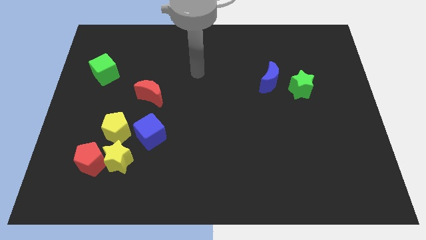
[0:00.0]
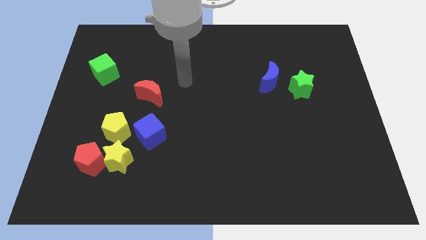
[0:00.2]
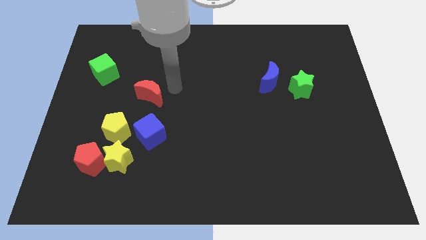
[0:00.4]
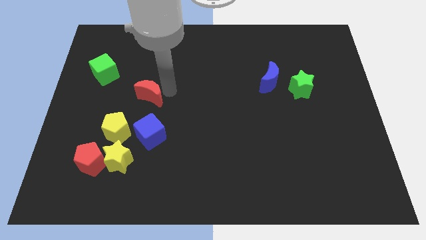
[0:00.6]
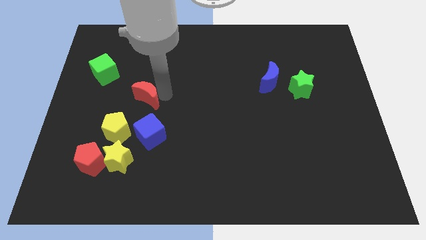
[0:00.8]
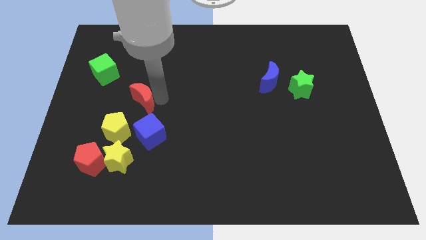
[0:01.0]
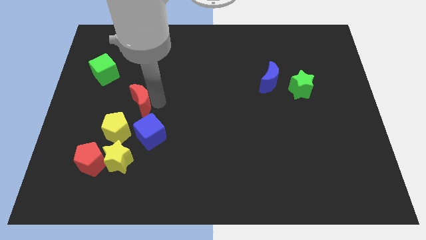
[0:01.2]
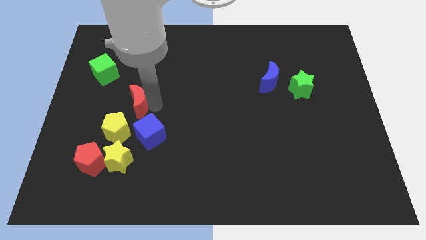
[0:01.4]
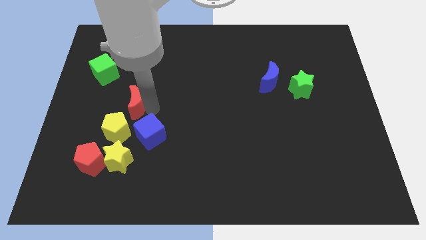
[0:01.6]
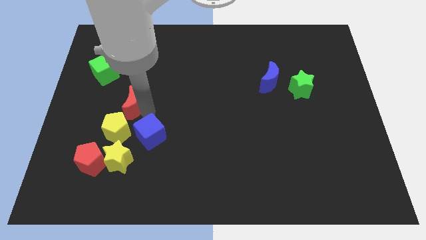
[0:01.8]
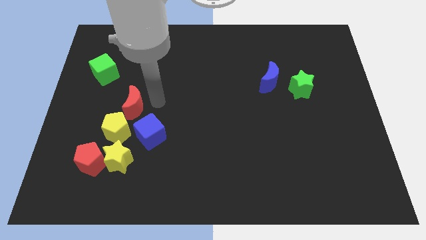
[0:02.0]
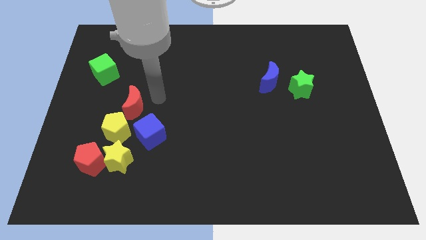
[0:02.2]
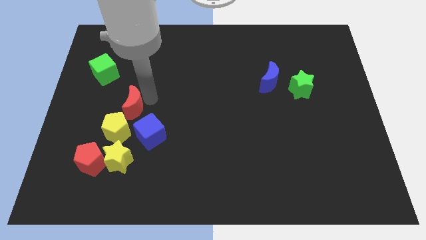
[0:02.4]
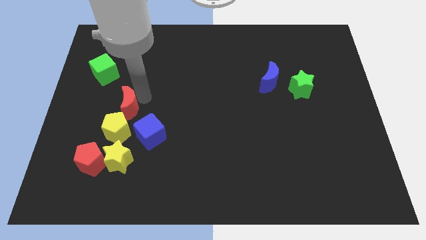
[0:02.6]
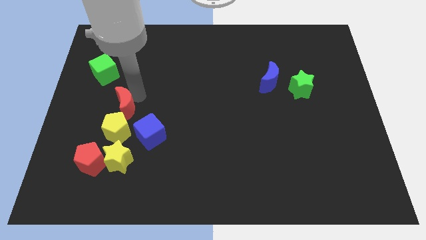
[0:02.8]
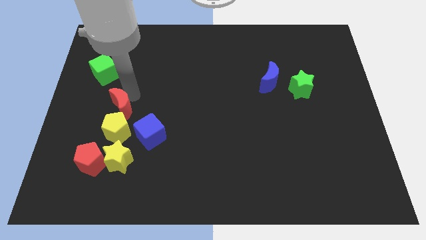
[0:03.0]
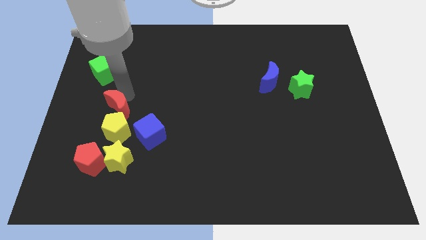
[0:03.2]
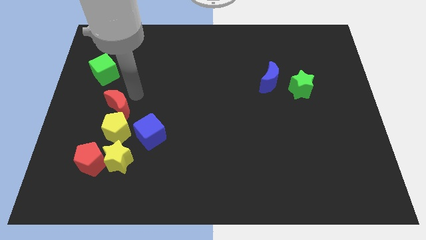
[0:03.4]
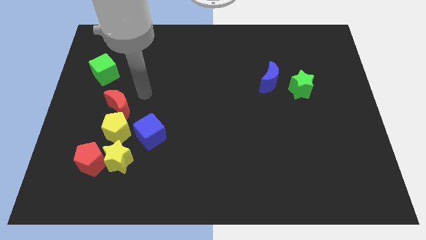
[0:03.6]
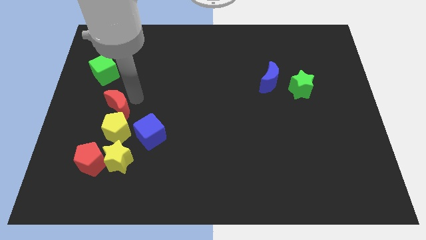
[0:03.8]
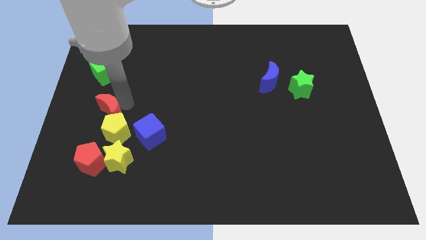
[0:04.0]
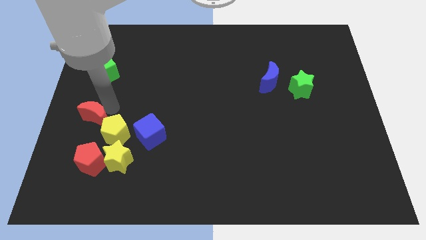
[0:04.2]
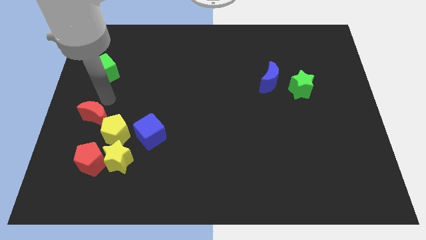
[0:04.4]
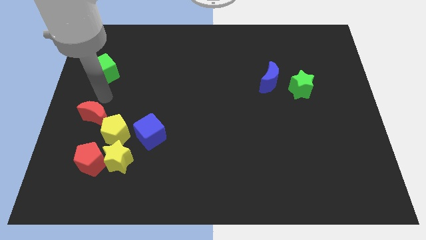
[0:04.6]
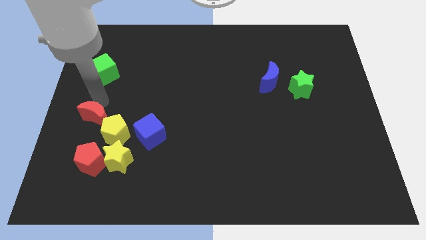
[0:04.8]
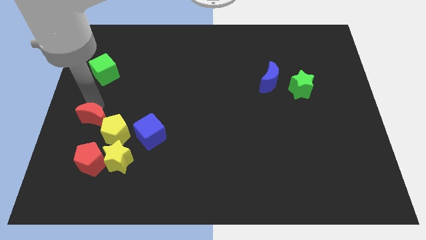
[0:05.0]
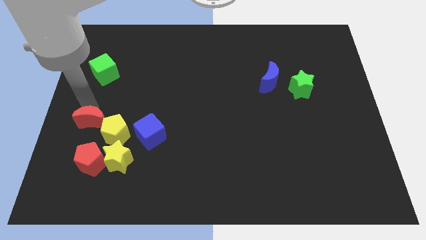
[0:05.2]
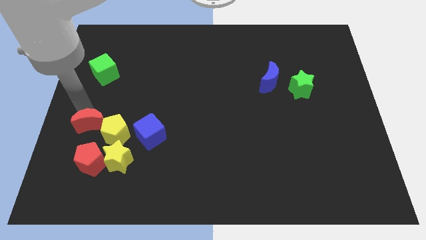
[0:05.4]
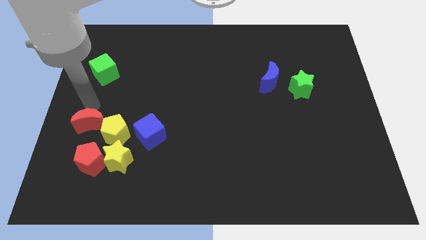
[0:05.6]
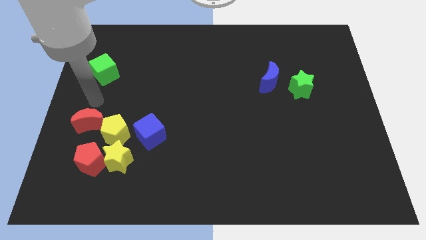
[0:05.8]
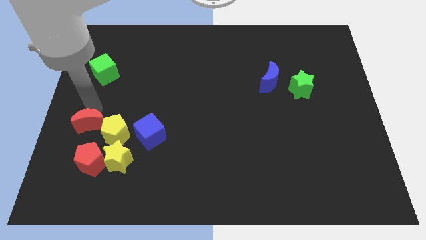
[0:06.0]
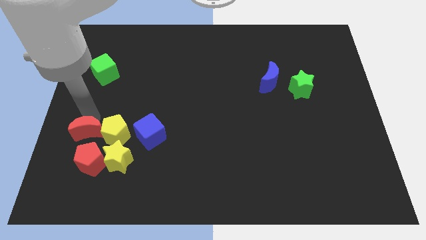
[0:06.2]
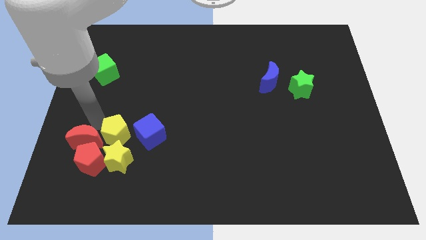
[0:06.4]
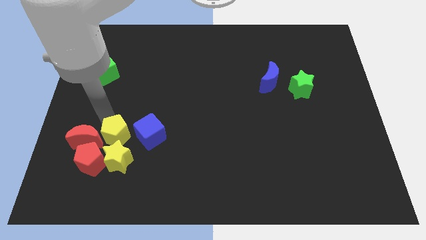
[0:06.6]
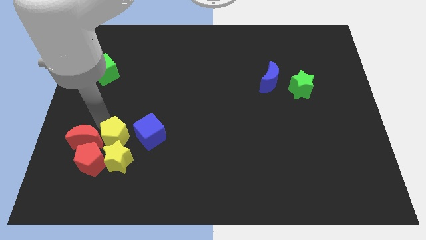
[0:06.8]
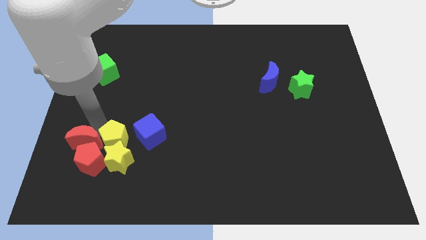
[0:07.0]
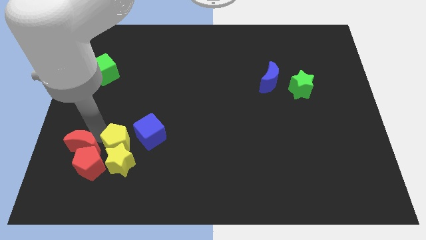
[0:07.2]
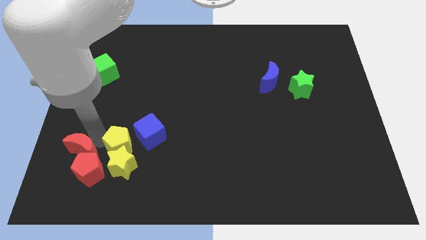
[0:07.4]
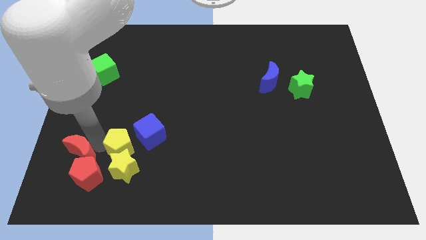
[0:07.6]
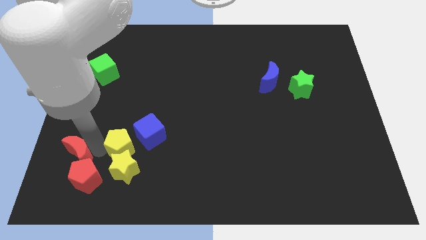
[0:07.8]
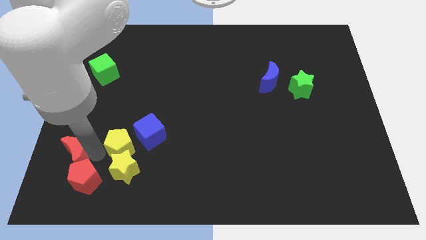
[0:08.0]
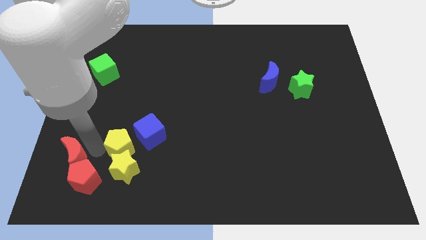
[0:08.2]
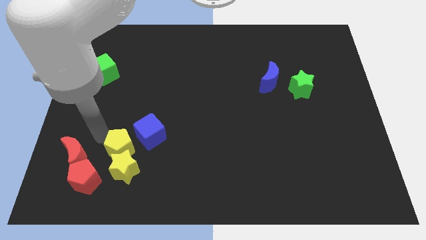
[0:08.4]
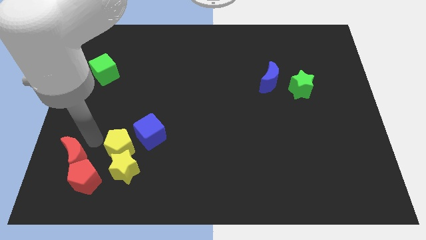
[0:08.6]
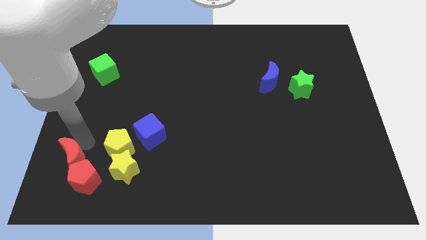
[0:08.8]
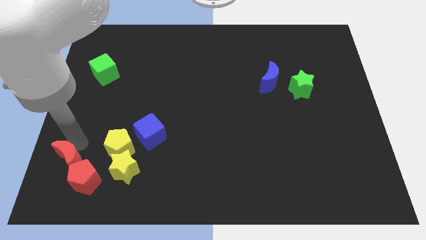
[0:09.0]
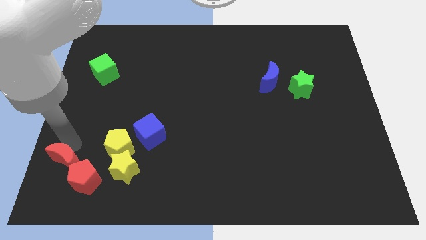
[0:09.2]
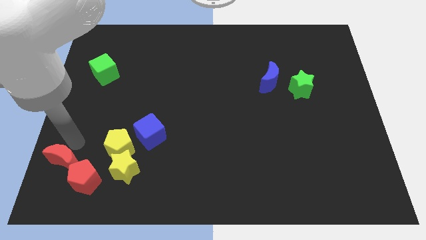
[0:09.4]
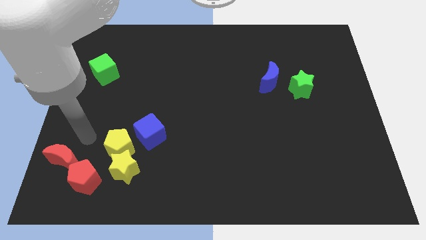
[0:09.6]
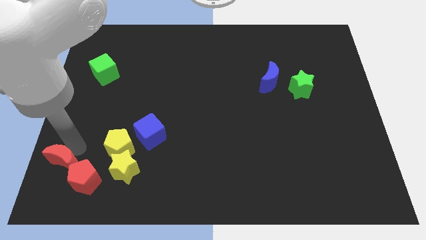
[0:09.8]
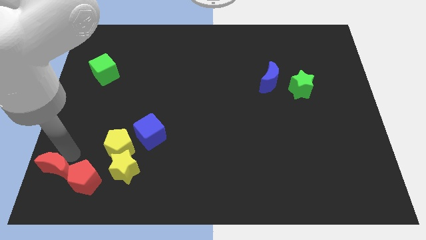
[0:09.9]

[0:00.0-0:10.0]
move the red moon to the bottom left corner

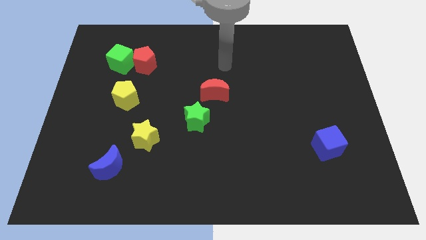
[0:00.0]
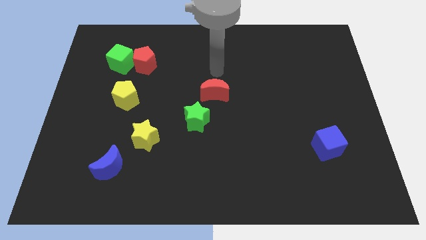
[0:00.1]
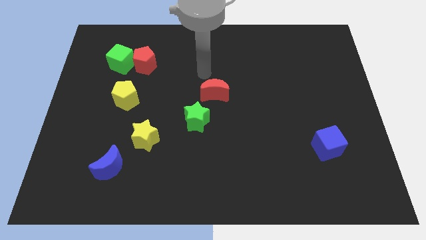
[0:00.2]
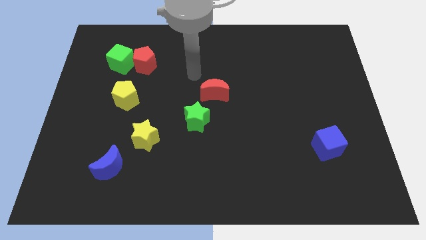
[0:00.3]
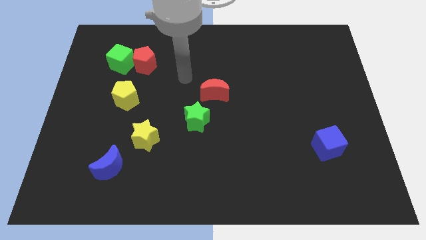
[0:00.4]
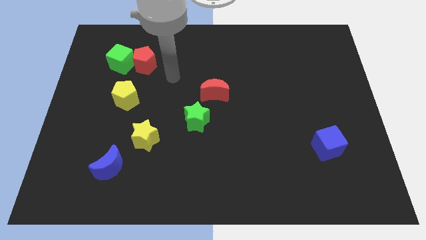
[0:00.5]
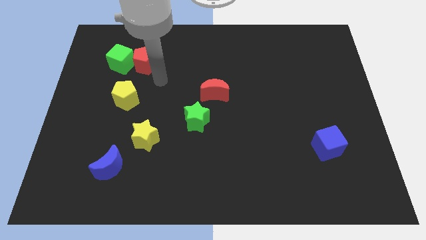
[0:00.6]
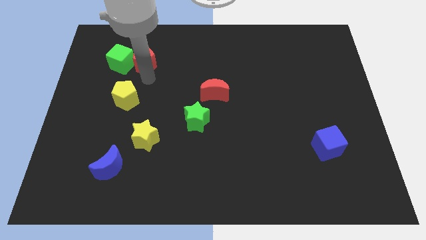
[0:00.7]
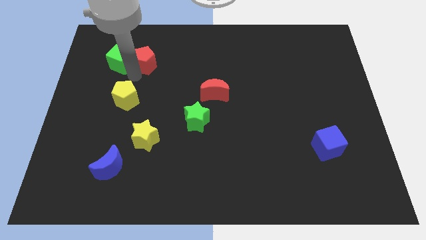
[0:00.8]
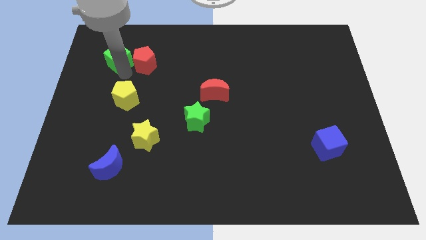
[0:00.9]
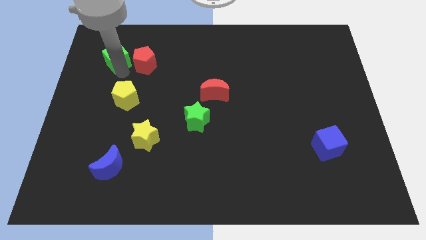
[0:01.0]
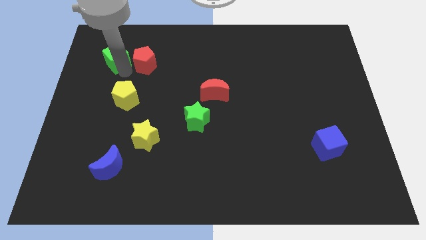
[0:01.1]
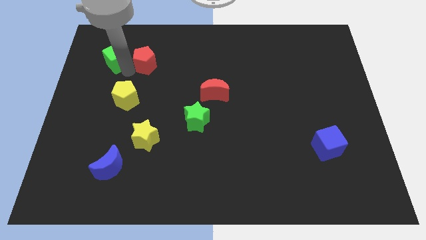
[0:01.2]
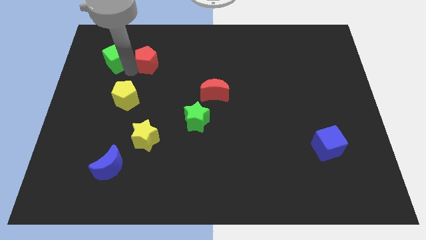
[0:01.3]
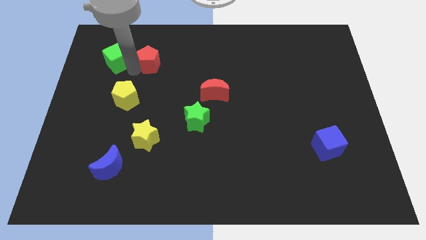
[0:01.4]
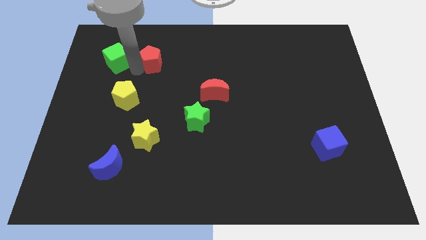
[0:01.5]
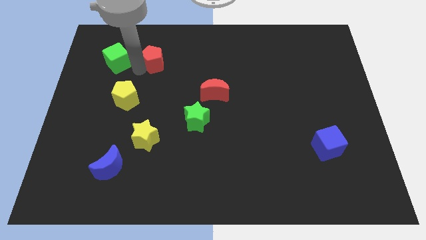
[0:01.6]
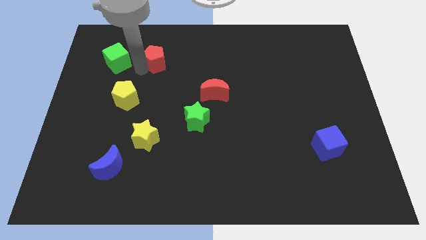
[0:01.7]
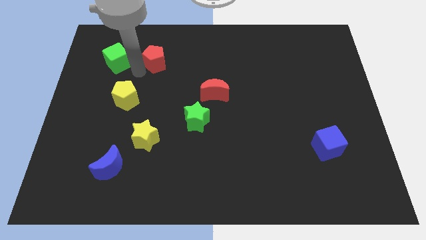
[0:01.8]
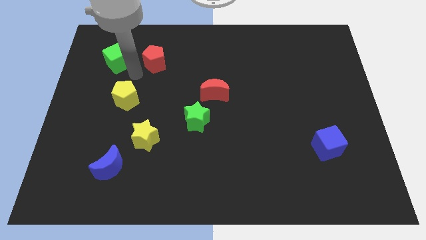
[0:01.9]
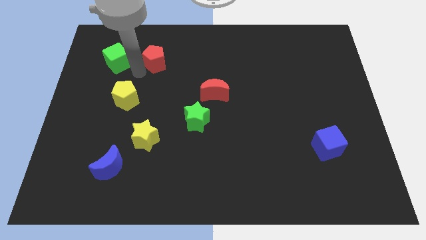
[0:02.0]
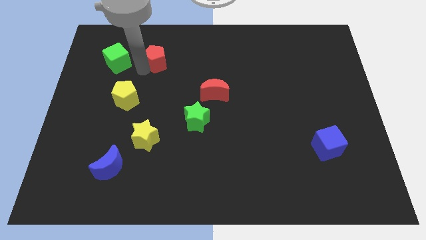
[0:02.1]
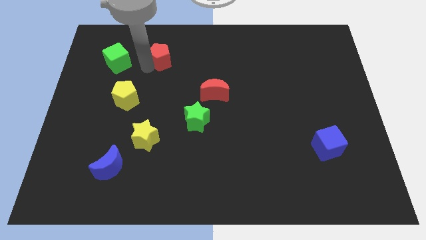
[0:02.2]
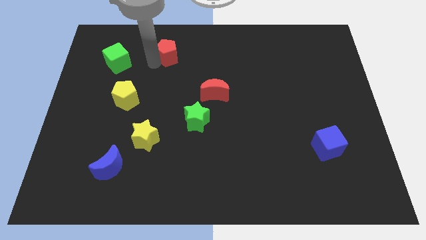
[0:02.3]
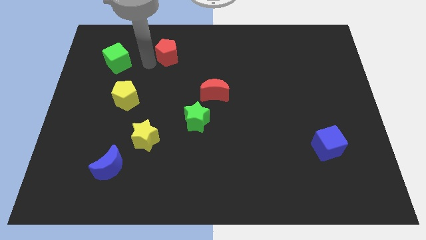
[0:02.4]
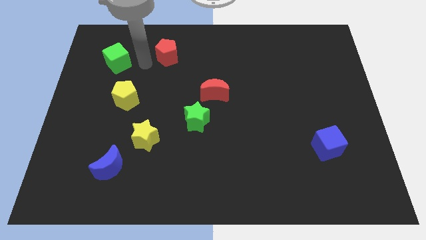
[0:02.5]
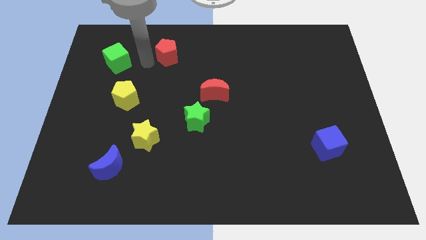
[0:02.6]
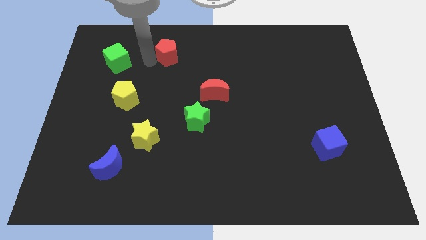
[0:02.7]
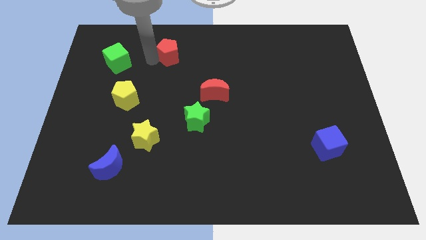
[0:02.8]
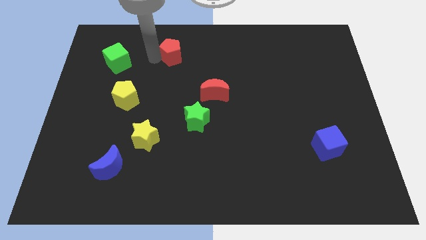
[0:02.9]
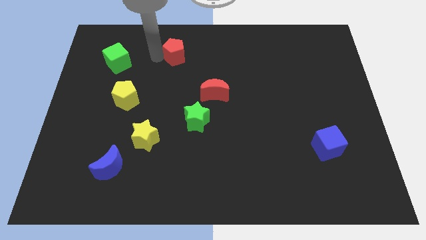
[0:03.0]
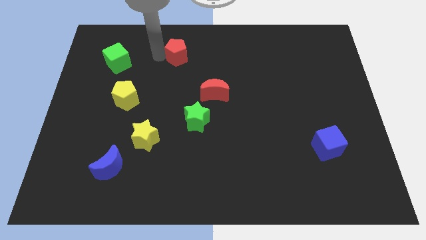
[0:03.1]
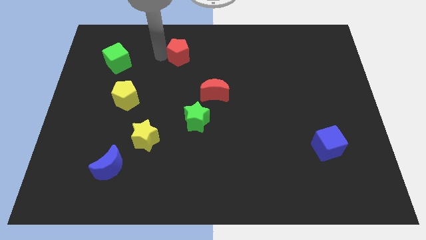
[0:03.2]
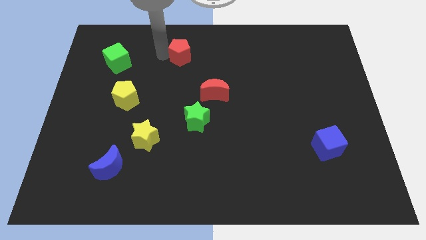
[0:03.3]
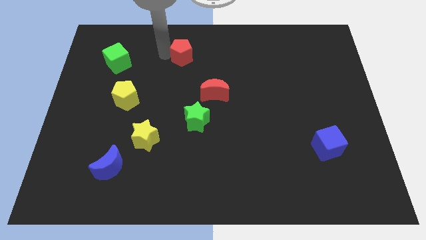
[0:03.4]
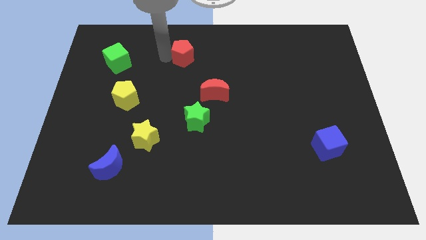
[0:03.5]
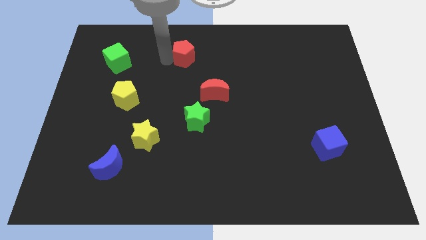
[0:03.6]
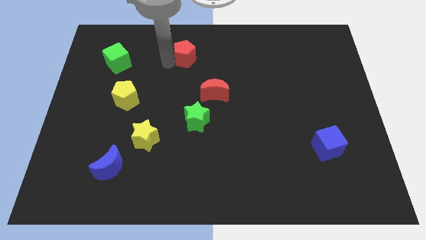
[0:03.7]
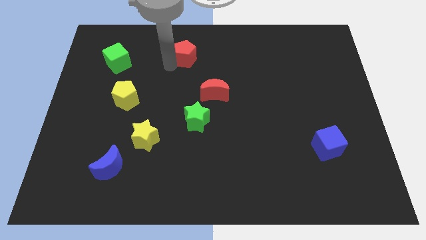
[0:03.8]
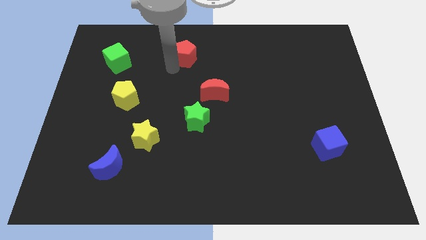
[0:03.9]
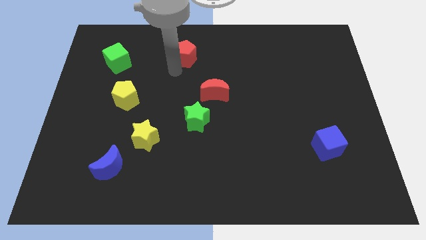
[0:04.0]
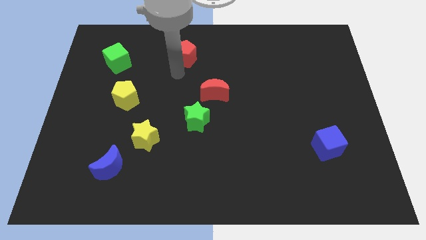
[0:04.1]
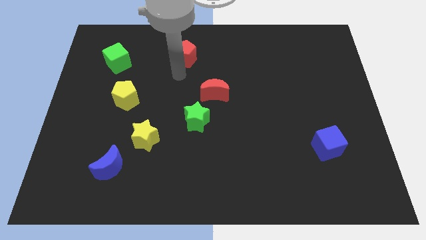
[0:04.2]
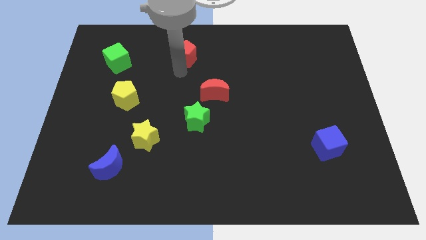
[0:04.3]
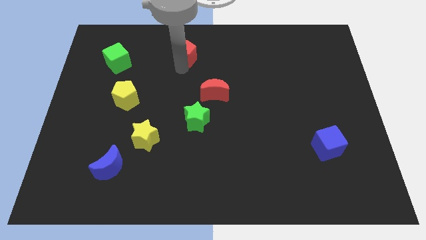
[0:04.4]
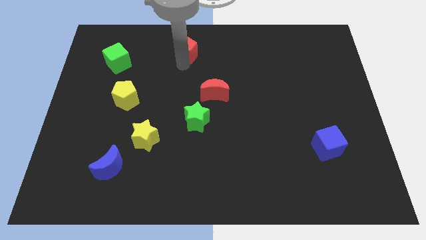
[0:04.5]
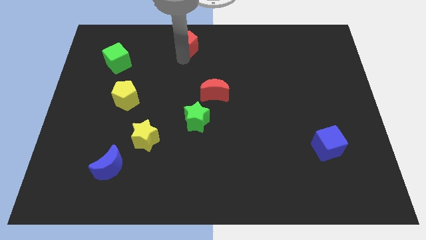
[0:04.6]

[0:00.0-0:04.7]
put the red pentagon to the top
